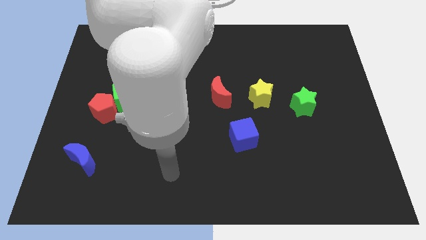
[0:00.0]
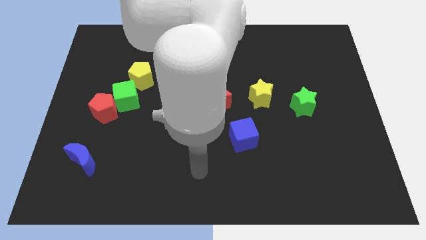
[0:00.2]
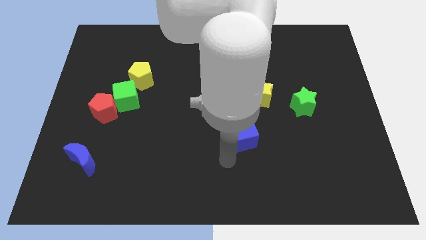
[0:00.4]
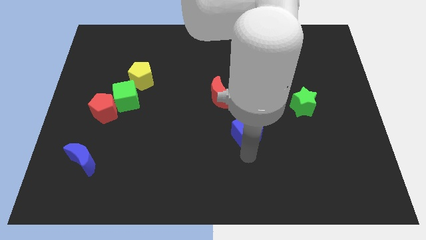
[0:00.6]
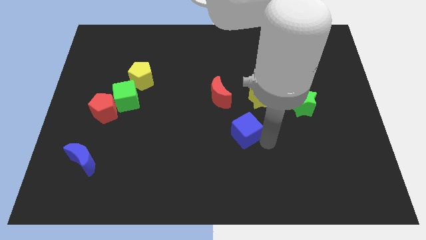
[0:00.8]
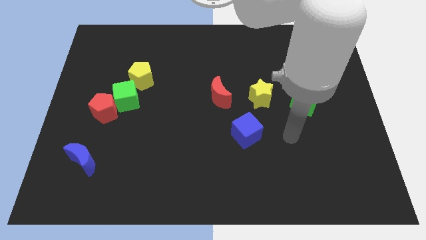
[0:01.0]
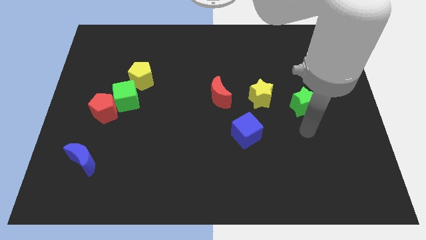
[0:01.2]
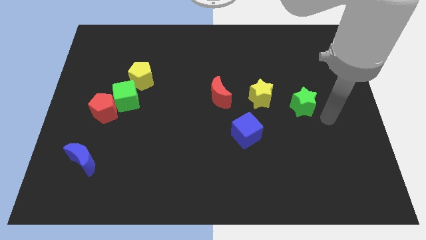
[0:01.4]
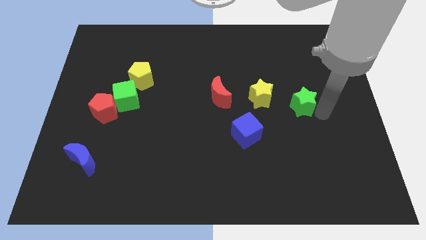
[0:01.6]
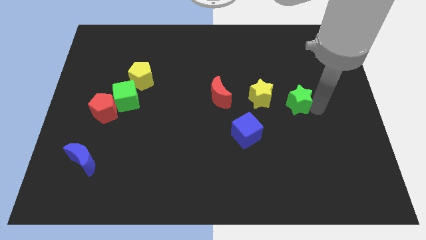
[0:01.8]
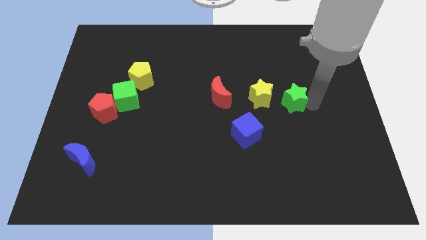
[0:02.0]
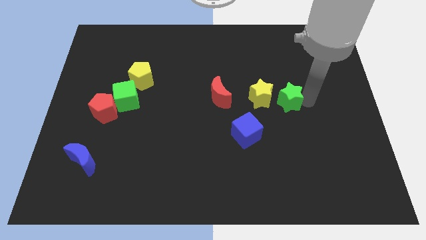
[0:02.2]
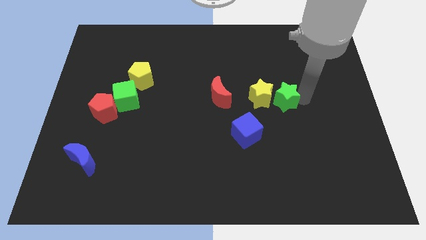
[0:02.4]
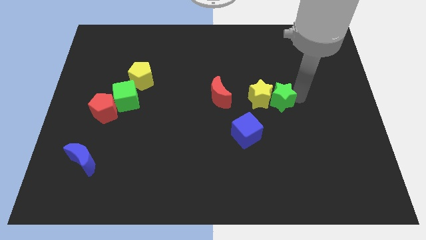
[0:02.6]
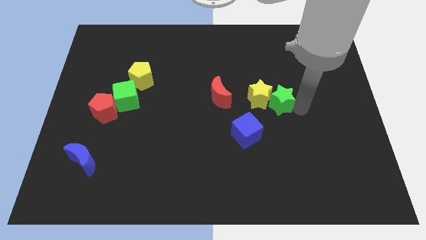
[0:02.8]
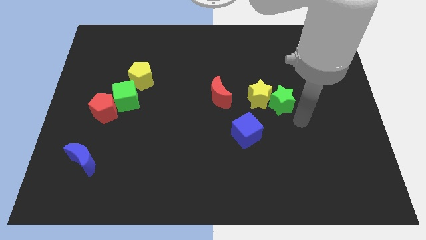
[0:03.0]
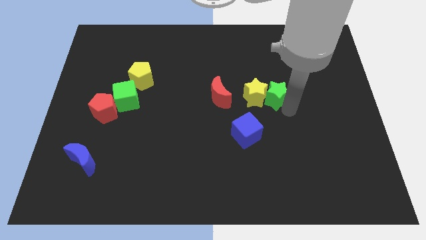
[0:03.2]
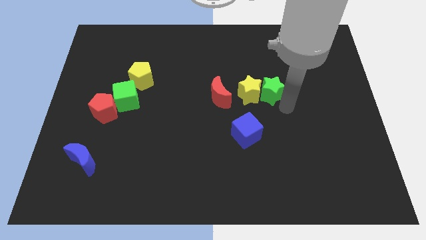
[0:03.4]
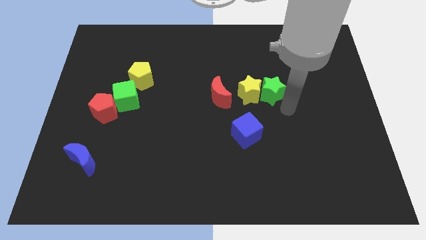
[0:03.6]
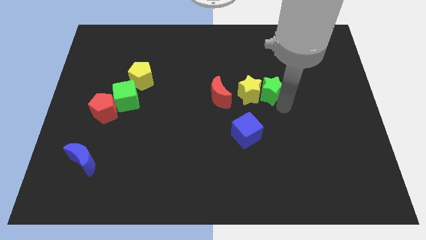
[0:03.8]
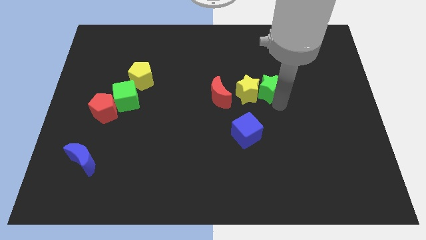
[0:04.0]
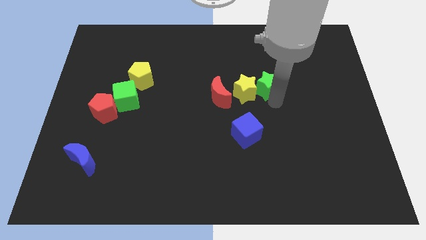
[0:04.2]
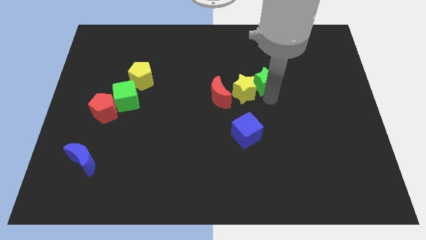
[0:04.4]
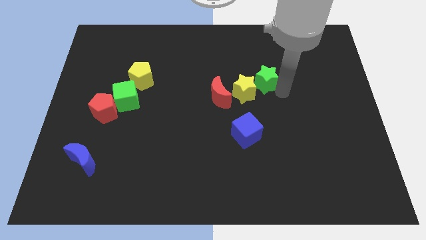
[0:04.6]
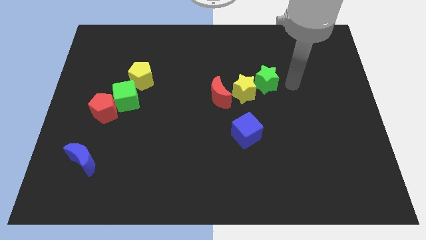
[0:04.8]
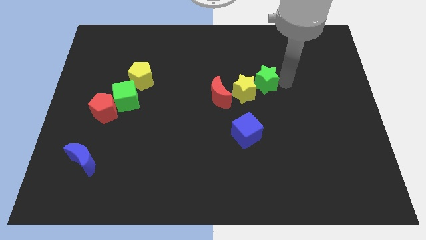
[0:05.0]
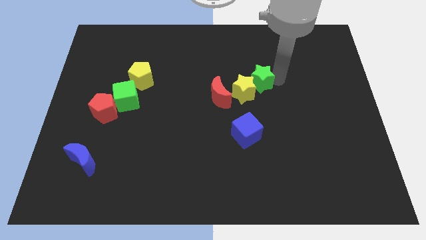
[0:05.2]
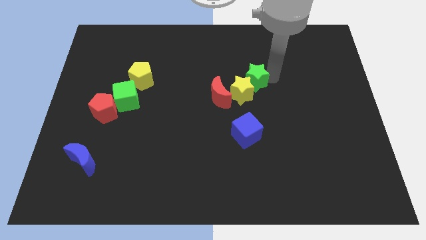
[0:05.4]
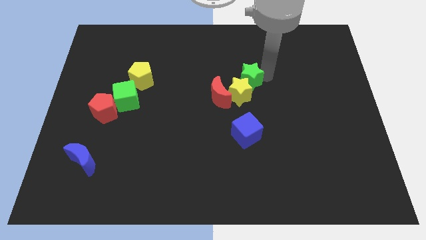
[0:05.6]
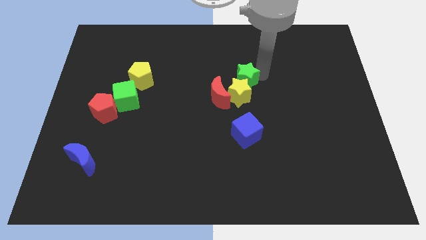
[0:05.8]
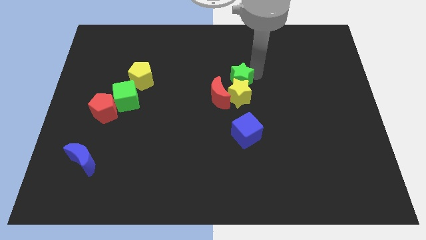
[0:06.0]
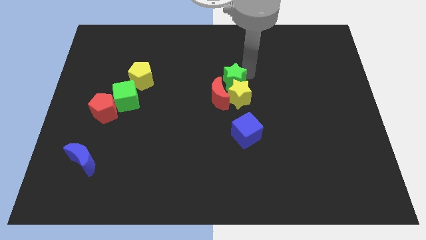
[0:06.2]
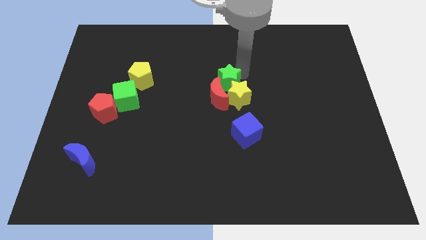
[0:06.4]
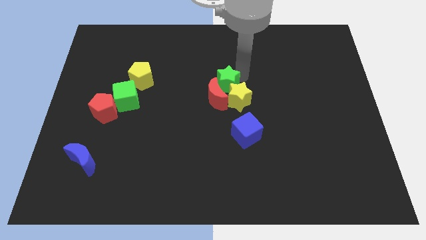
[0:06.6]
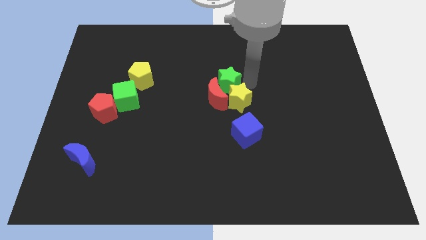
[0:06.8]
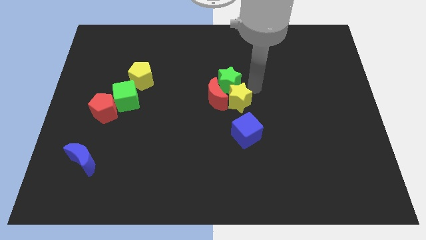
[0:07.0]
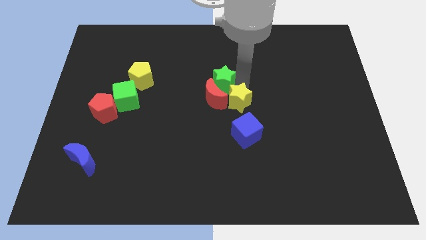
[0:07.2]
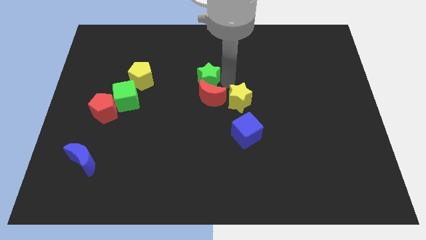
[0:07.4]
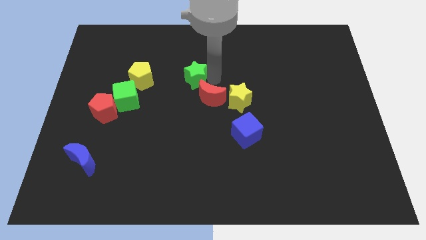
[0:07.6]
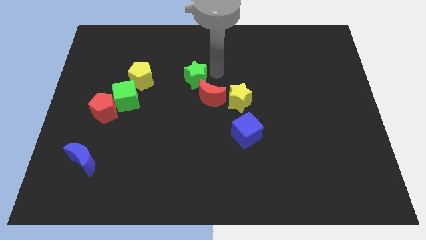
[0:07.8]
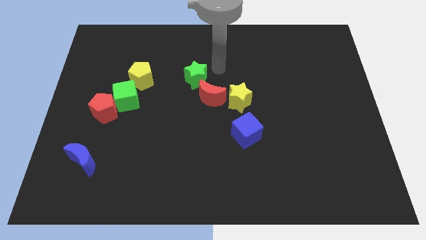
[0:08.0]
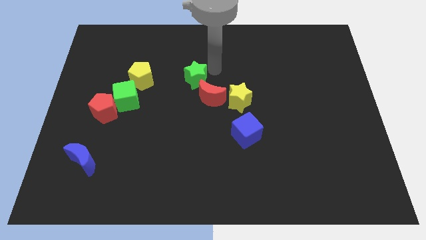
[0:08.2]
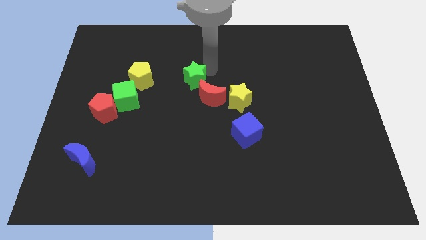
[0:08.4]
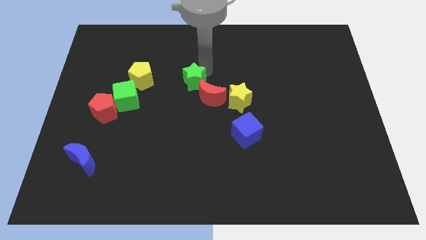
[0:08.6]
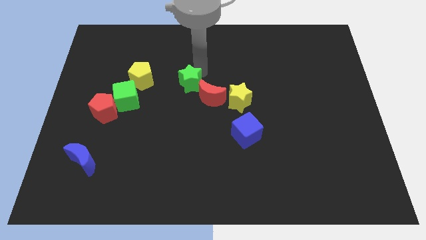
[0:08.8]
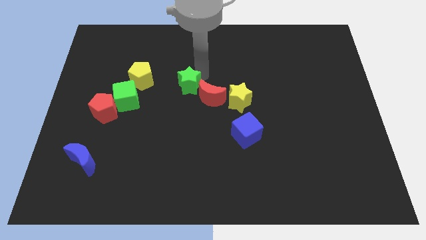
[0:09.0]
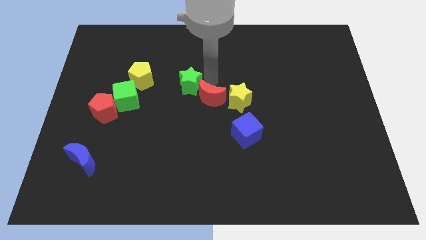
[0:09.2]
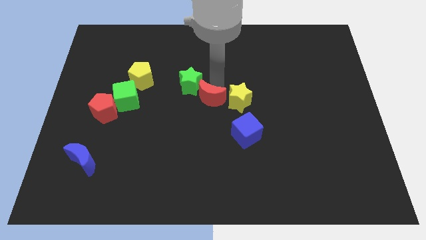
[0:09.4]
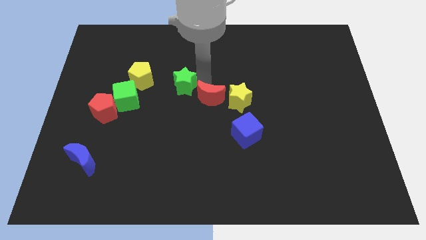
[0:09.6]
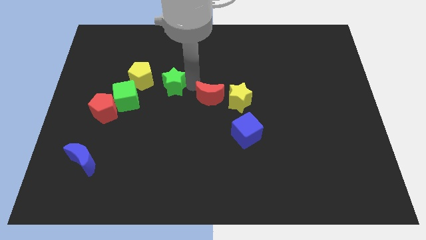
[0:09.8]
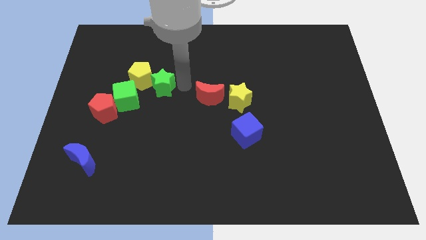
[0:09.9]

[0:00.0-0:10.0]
put the green star towards the yellow pentagon

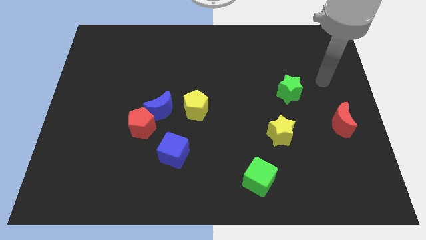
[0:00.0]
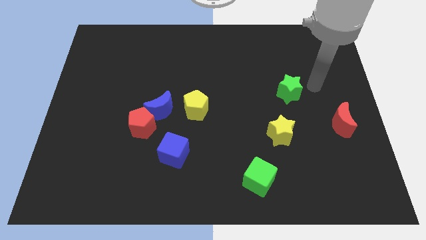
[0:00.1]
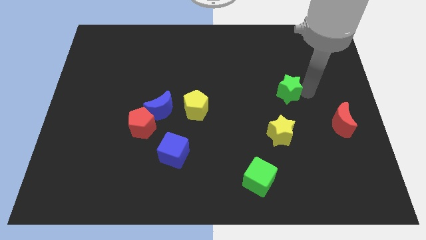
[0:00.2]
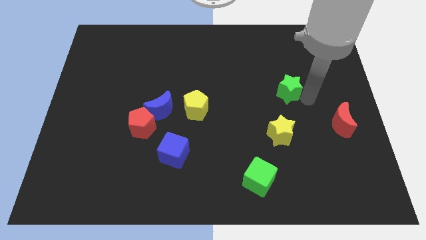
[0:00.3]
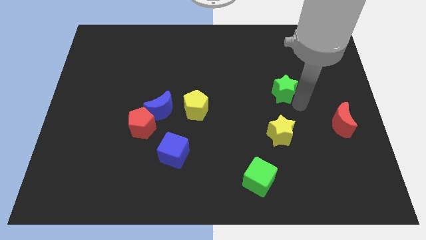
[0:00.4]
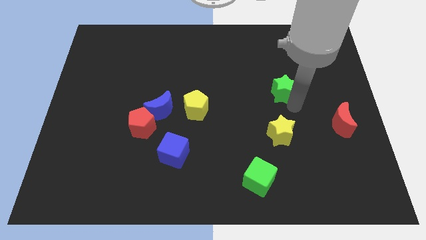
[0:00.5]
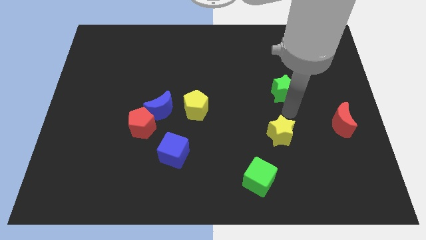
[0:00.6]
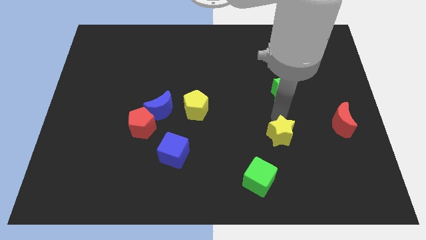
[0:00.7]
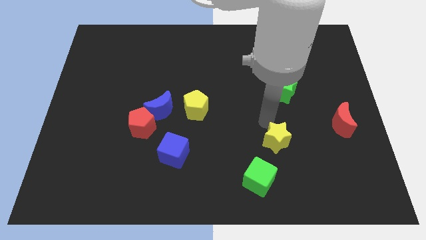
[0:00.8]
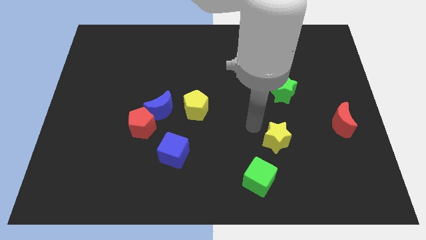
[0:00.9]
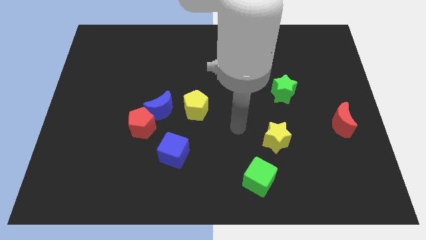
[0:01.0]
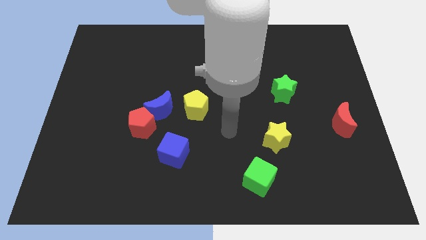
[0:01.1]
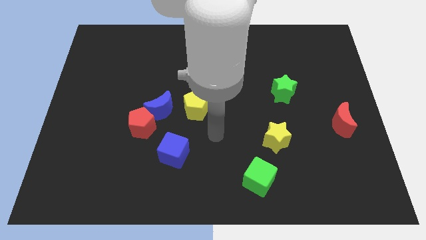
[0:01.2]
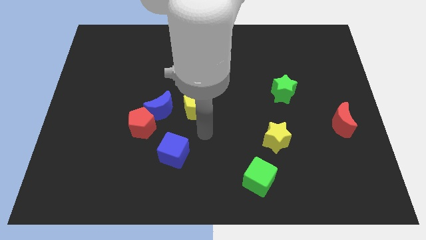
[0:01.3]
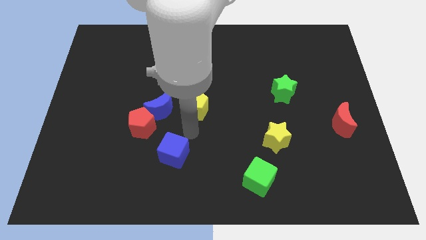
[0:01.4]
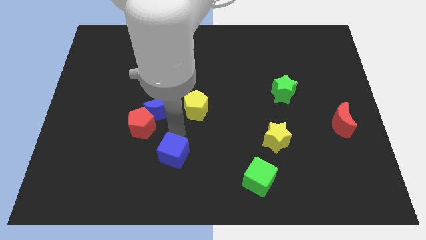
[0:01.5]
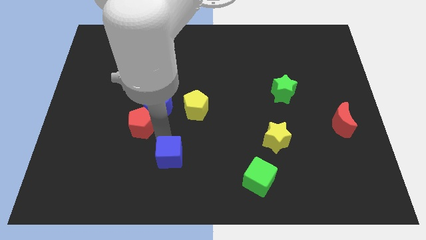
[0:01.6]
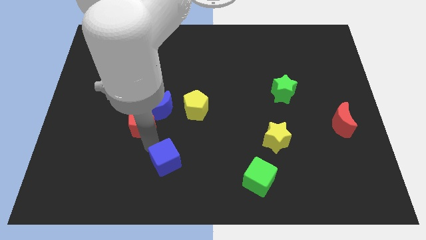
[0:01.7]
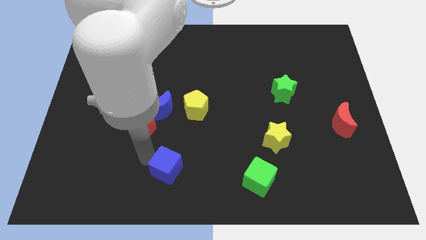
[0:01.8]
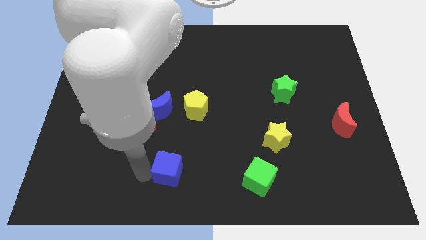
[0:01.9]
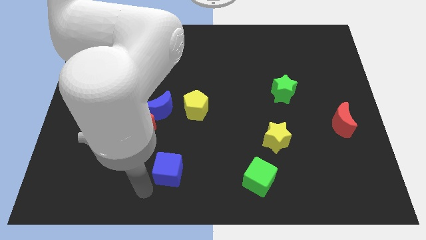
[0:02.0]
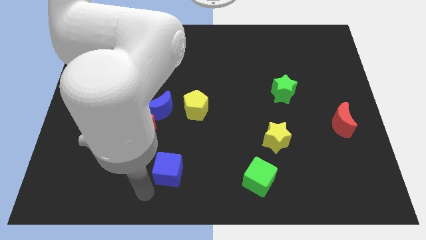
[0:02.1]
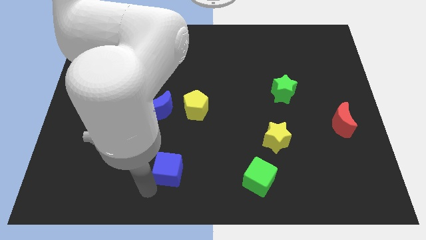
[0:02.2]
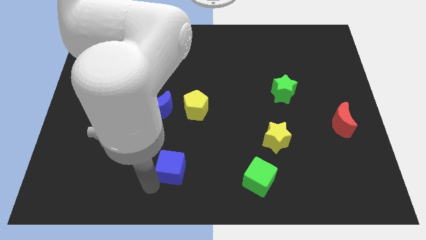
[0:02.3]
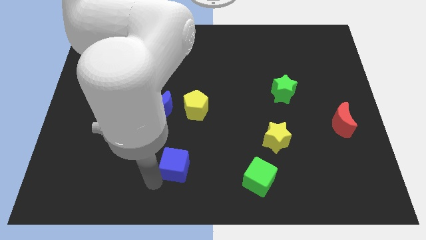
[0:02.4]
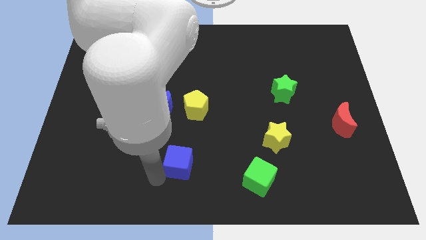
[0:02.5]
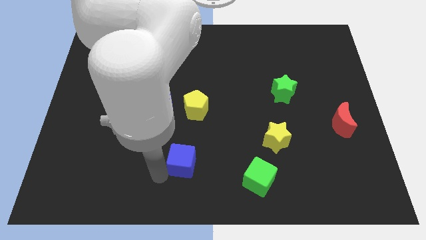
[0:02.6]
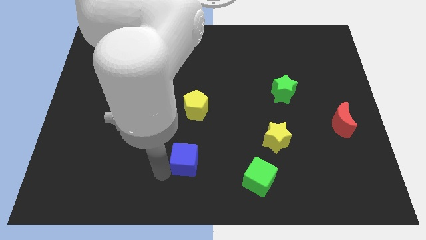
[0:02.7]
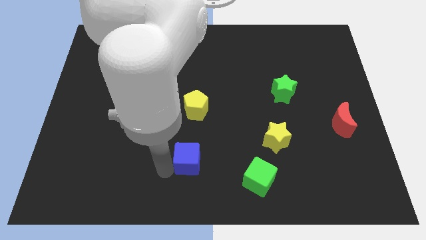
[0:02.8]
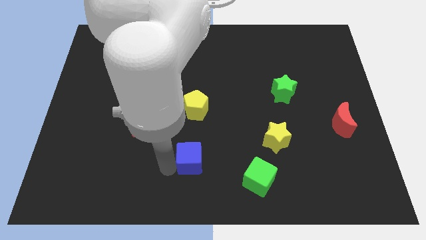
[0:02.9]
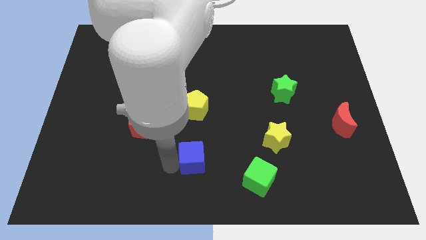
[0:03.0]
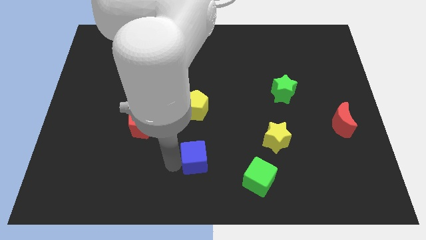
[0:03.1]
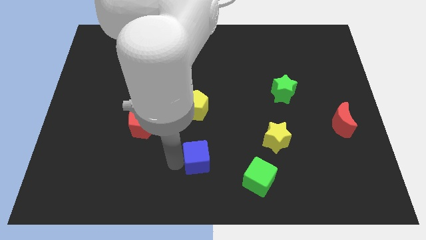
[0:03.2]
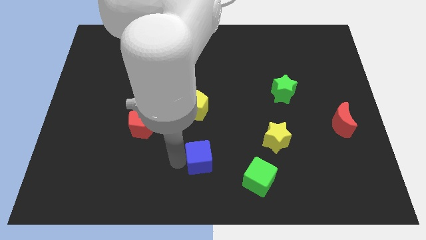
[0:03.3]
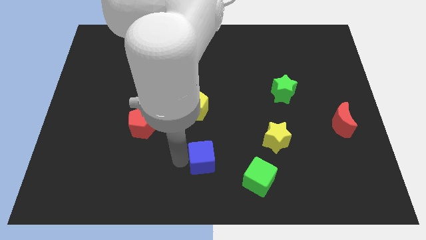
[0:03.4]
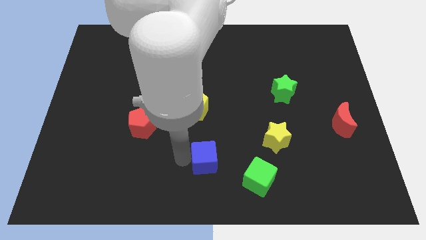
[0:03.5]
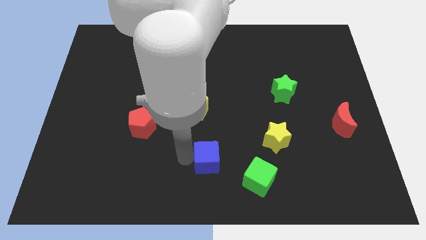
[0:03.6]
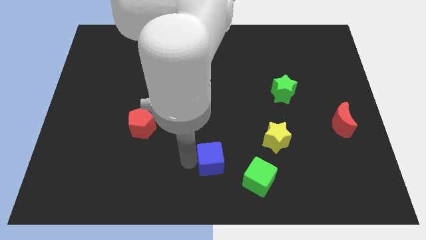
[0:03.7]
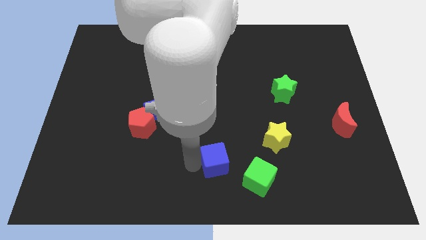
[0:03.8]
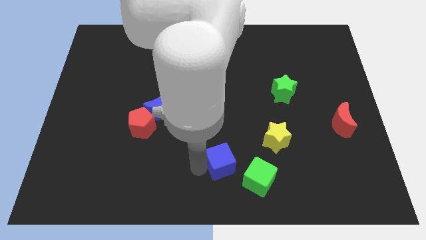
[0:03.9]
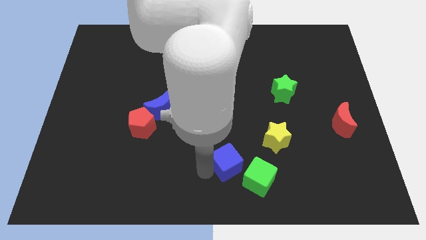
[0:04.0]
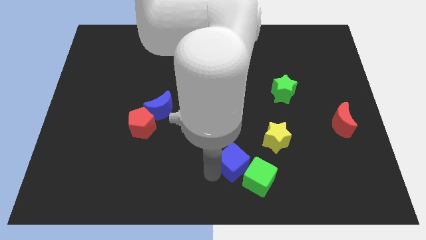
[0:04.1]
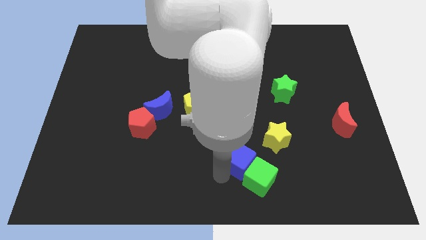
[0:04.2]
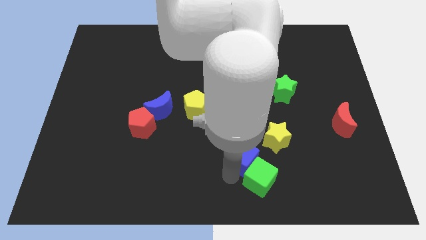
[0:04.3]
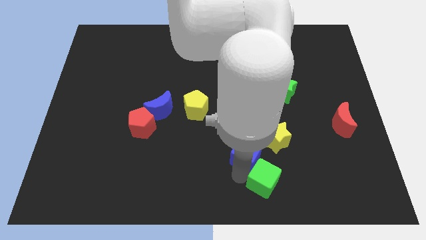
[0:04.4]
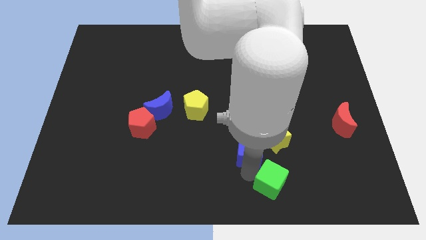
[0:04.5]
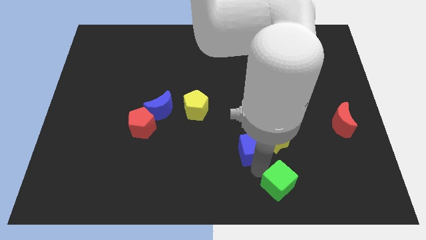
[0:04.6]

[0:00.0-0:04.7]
push the blue cube close to the yellow star
